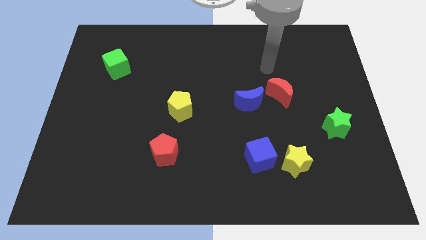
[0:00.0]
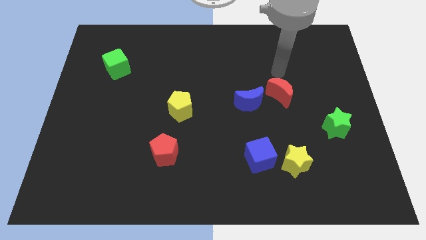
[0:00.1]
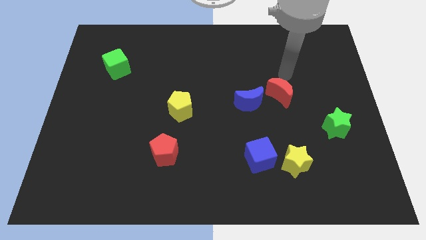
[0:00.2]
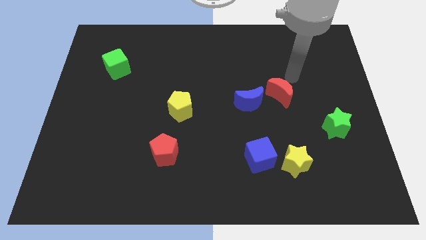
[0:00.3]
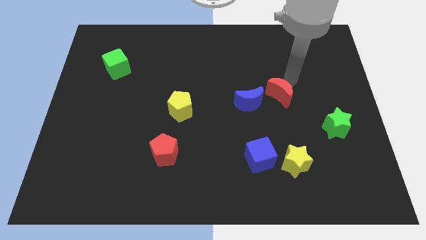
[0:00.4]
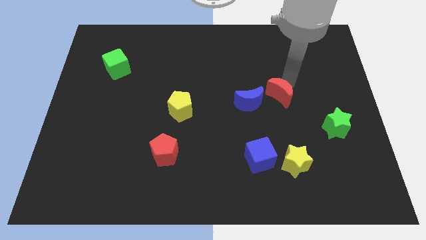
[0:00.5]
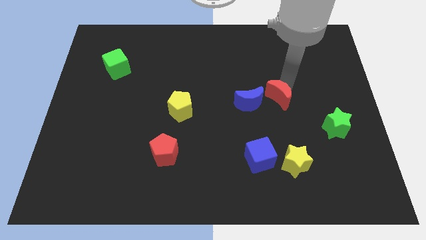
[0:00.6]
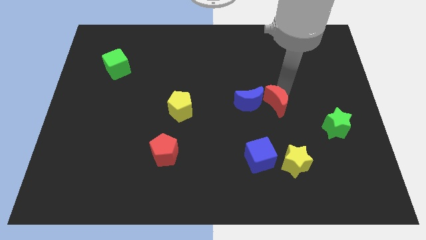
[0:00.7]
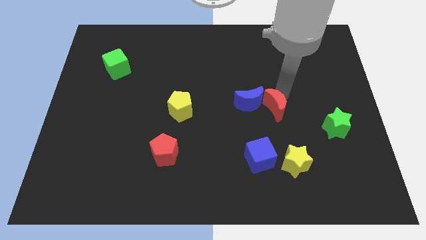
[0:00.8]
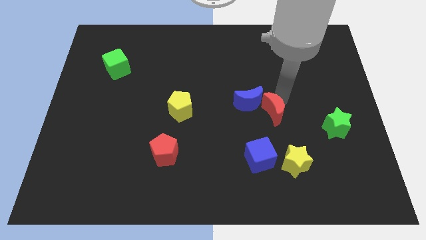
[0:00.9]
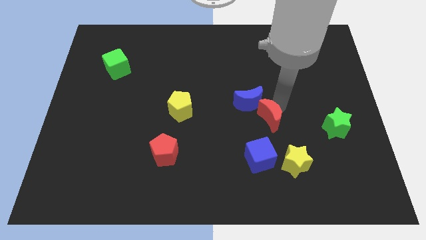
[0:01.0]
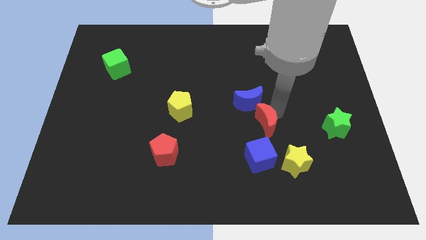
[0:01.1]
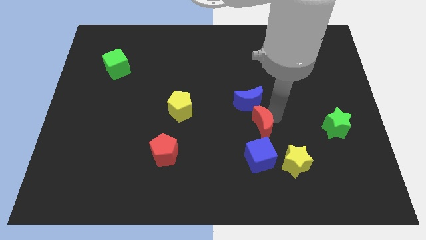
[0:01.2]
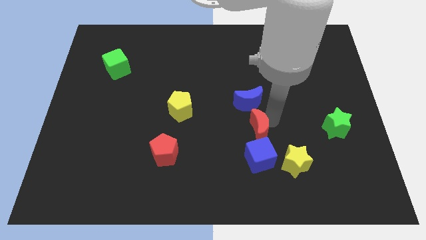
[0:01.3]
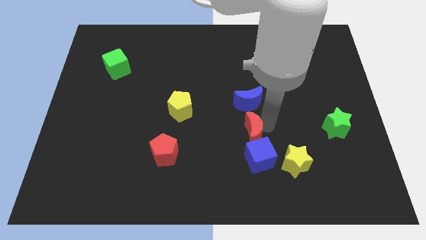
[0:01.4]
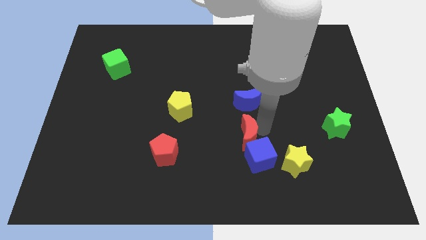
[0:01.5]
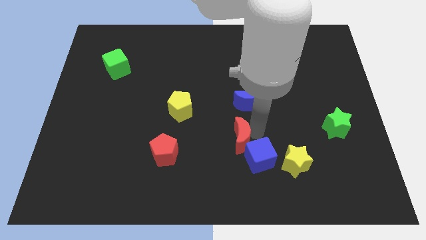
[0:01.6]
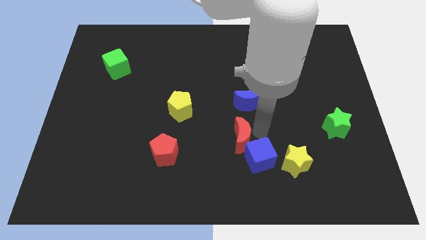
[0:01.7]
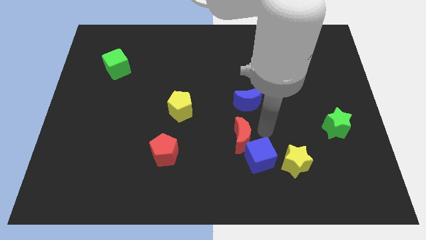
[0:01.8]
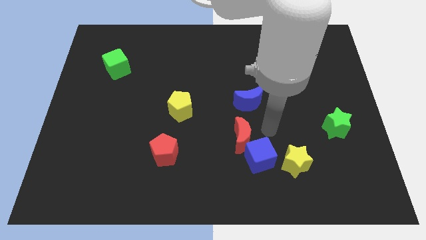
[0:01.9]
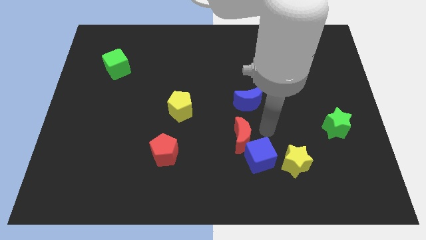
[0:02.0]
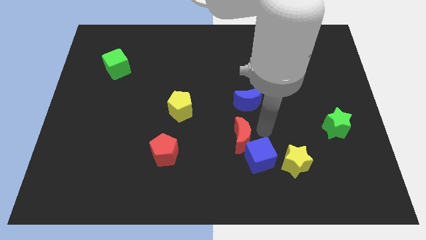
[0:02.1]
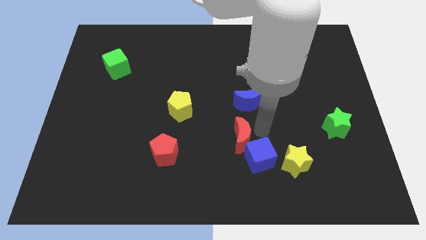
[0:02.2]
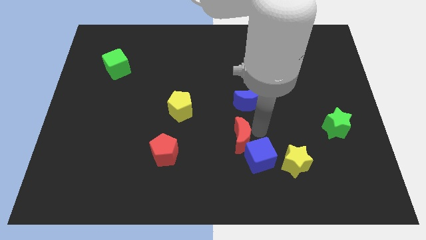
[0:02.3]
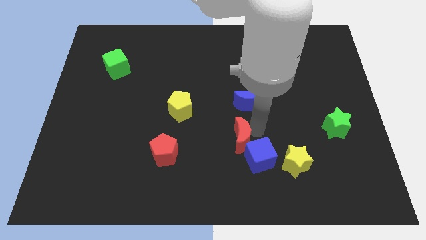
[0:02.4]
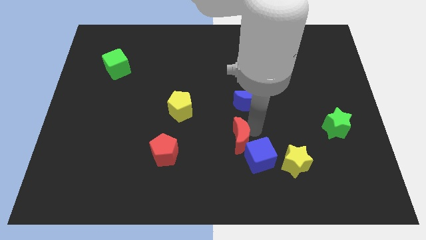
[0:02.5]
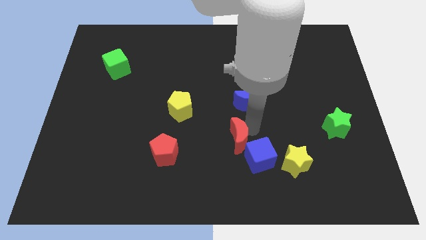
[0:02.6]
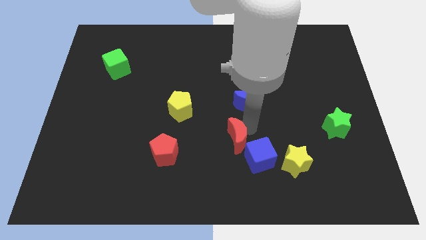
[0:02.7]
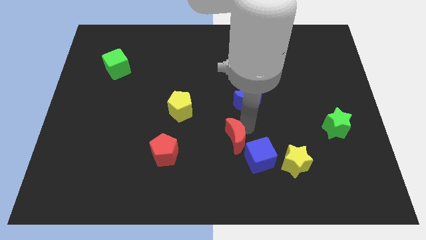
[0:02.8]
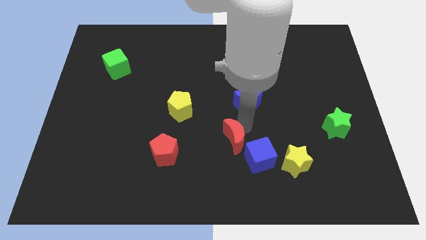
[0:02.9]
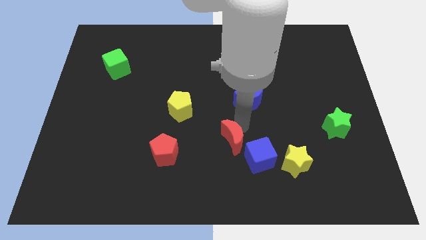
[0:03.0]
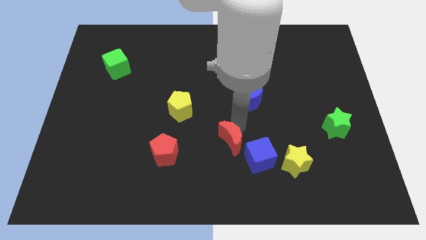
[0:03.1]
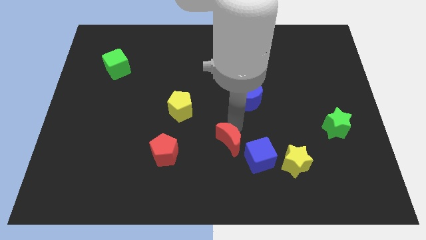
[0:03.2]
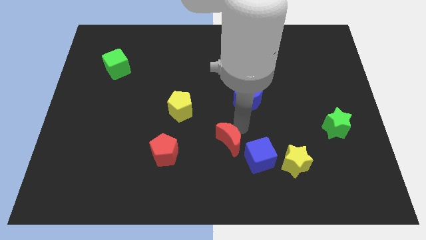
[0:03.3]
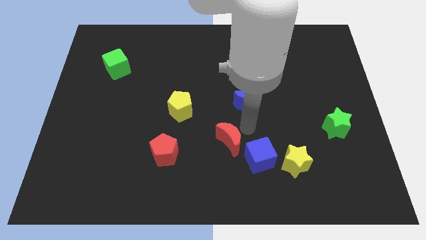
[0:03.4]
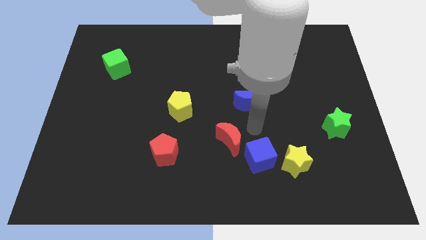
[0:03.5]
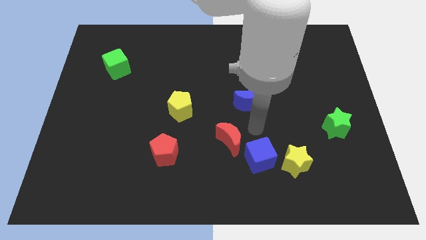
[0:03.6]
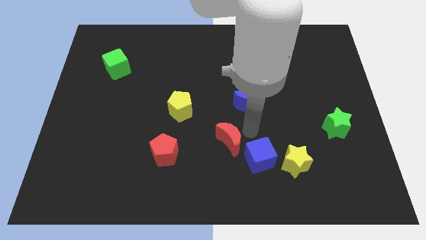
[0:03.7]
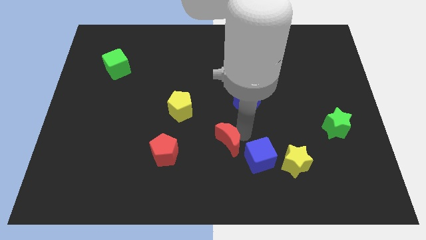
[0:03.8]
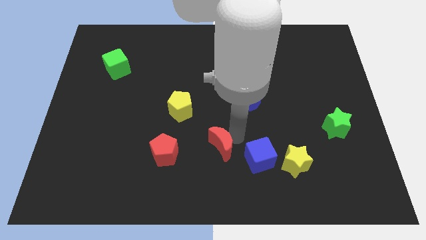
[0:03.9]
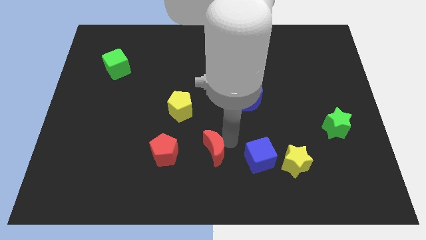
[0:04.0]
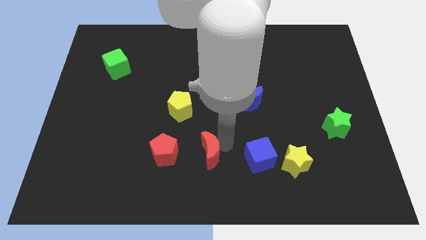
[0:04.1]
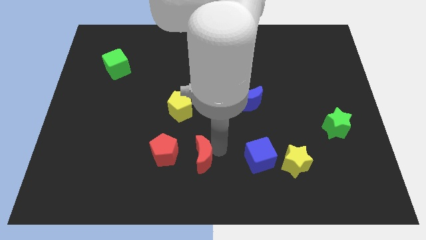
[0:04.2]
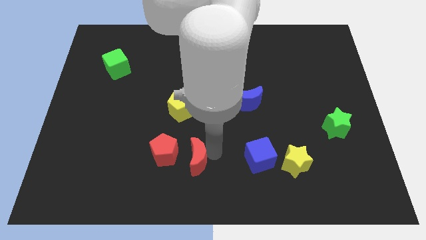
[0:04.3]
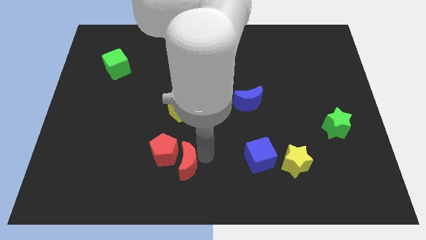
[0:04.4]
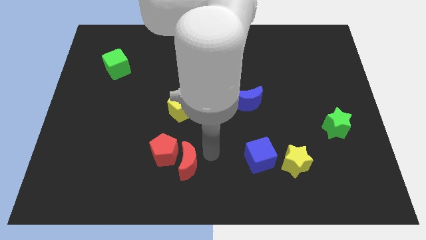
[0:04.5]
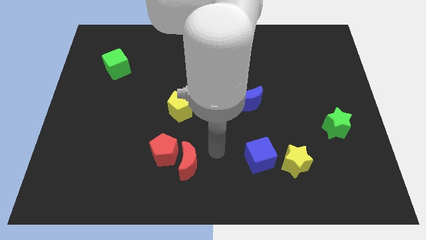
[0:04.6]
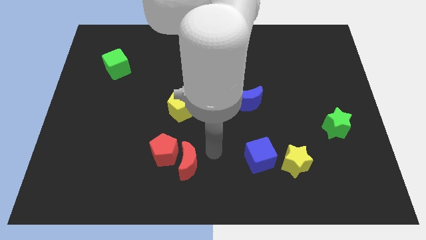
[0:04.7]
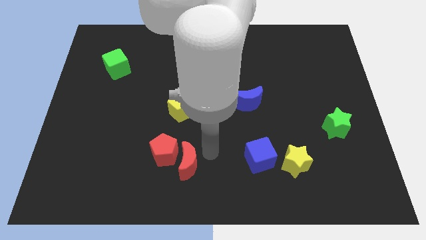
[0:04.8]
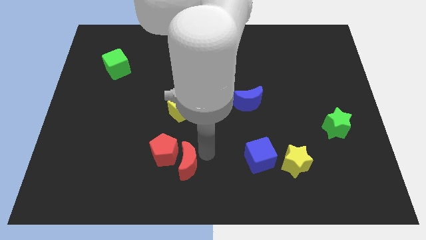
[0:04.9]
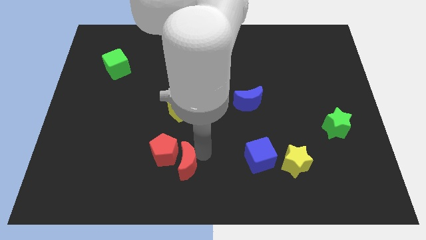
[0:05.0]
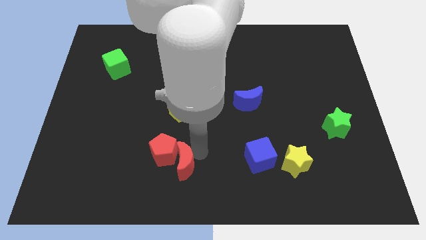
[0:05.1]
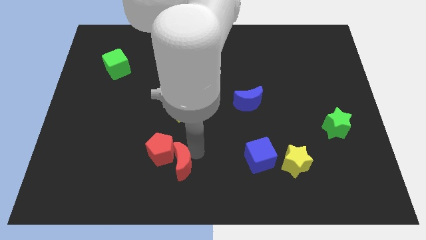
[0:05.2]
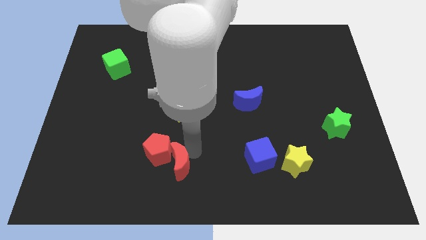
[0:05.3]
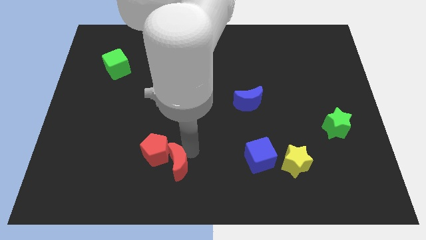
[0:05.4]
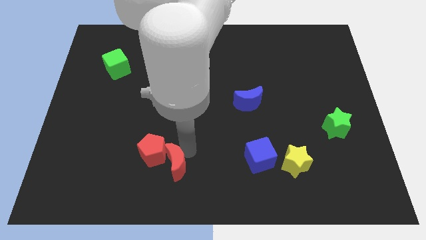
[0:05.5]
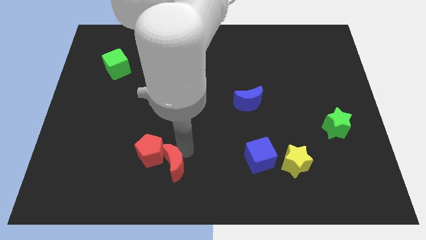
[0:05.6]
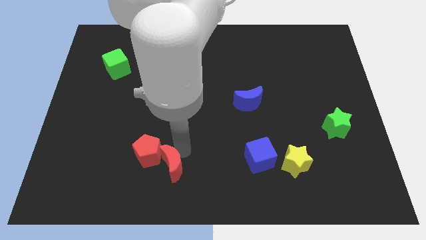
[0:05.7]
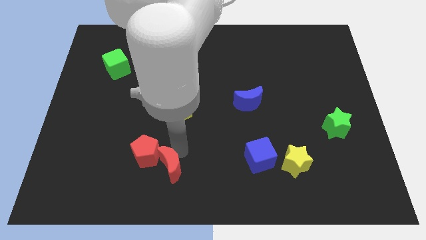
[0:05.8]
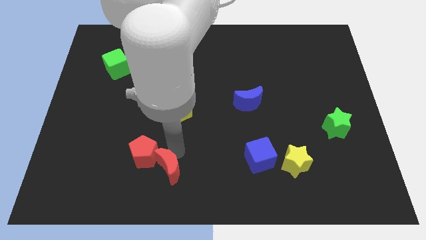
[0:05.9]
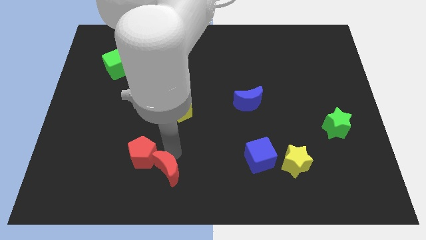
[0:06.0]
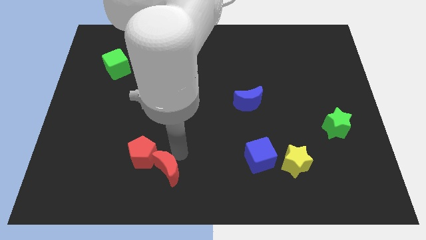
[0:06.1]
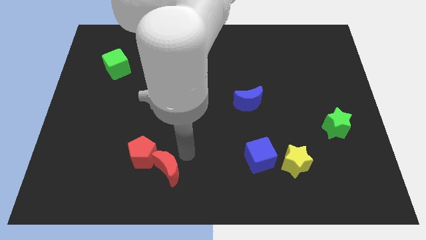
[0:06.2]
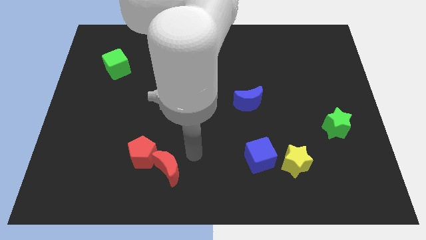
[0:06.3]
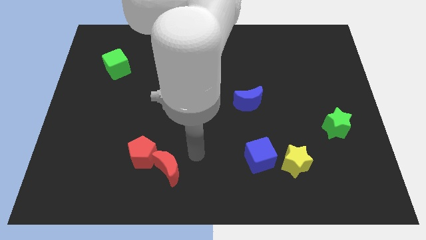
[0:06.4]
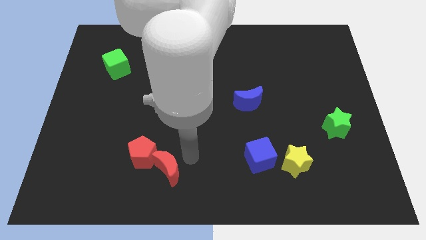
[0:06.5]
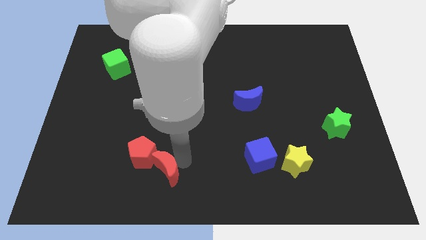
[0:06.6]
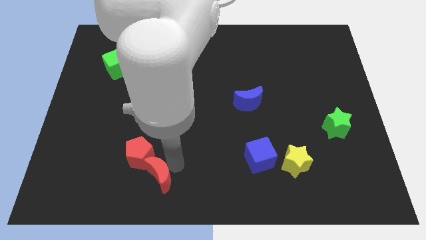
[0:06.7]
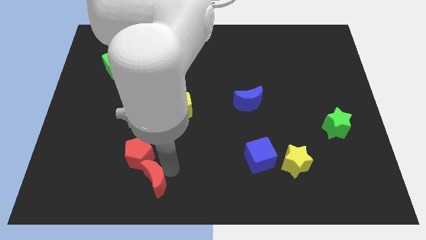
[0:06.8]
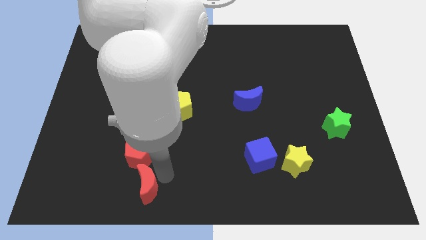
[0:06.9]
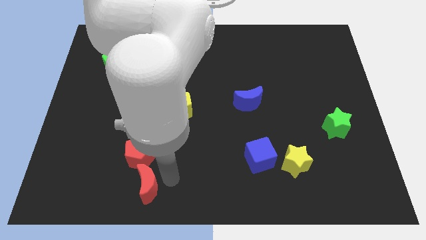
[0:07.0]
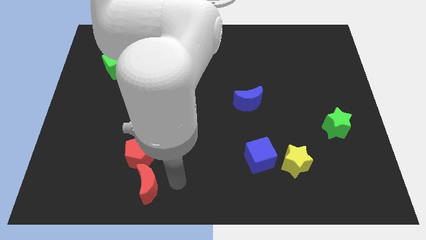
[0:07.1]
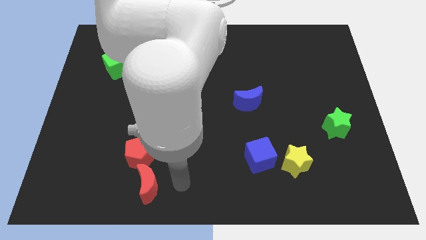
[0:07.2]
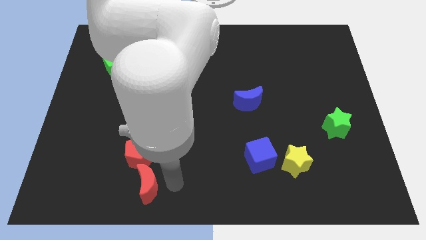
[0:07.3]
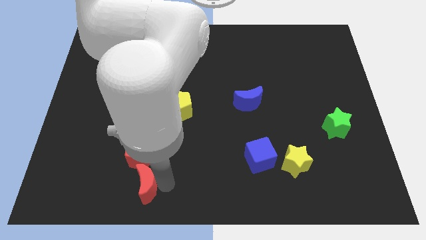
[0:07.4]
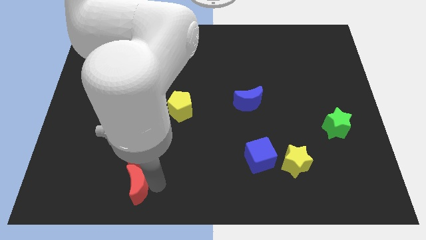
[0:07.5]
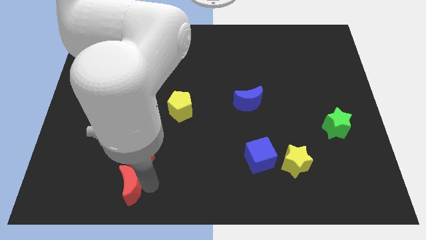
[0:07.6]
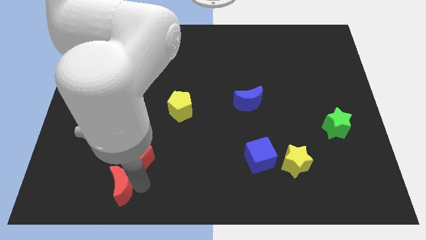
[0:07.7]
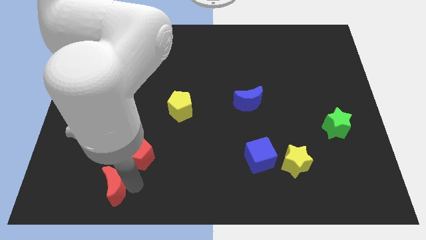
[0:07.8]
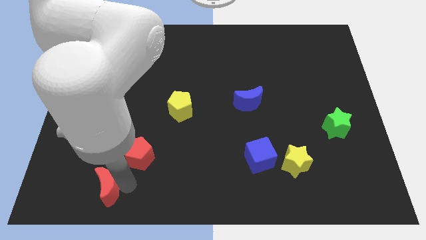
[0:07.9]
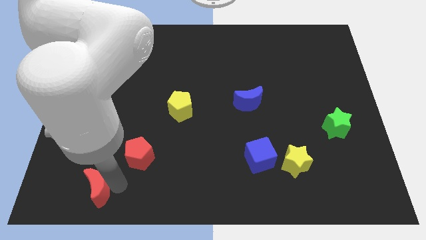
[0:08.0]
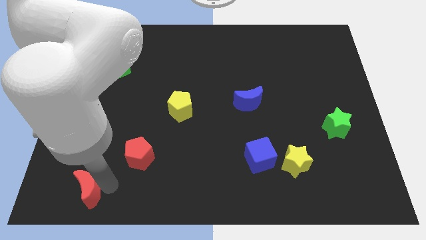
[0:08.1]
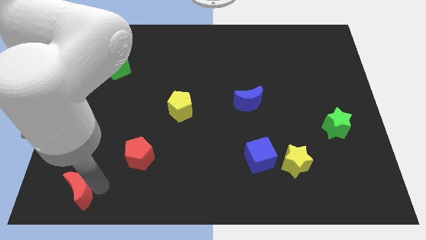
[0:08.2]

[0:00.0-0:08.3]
push the red moon to the bottom left corner
